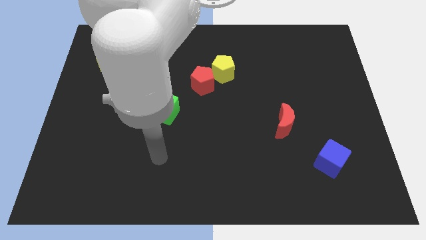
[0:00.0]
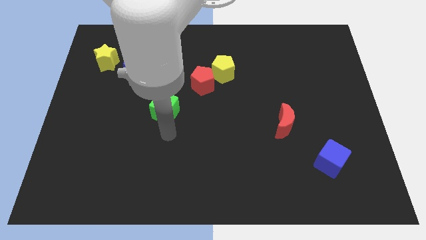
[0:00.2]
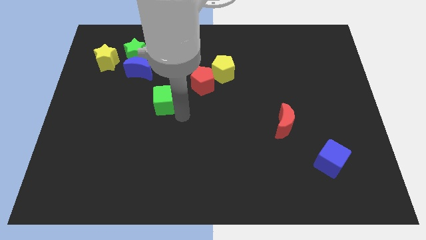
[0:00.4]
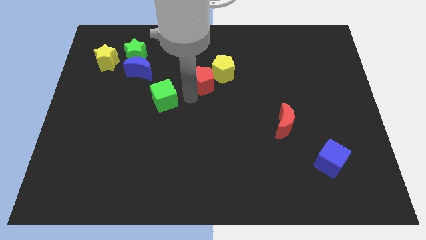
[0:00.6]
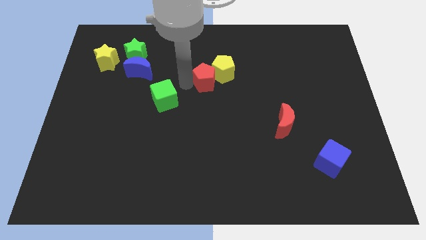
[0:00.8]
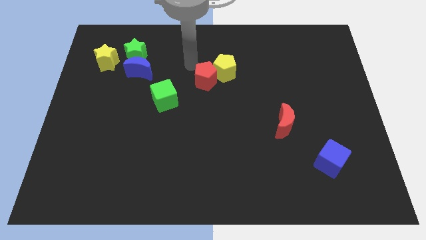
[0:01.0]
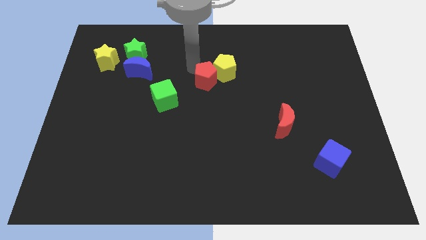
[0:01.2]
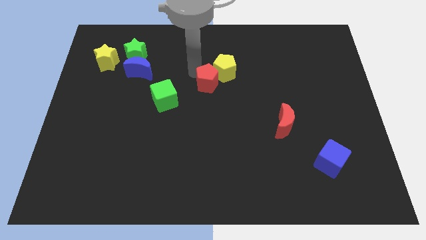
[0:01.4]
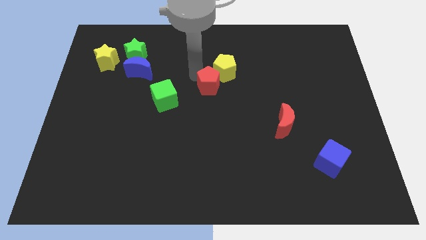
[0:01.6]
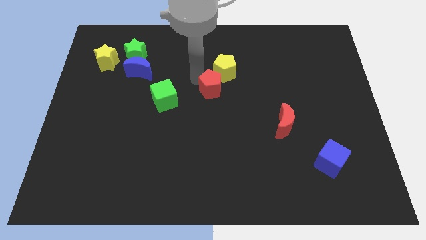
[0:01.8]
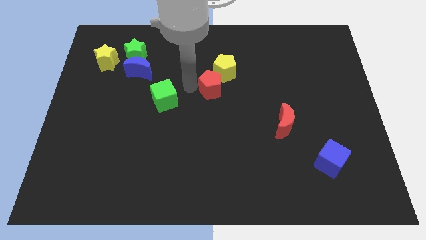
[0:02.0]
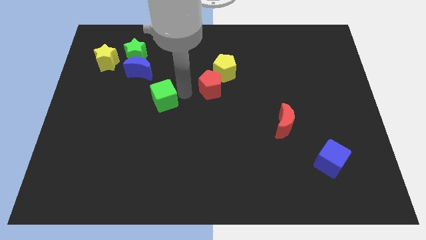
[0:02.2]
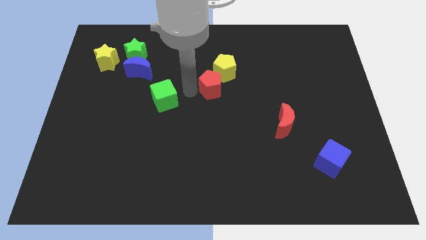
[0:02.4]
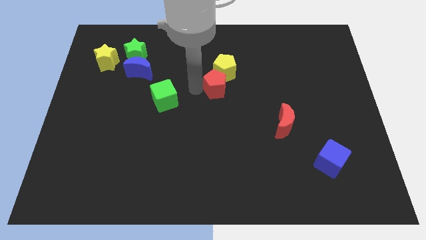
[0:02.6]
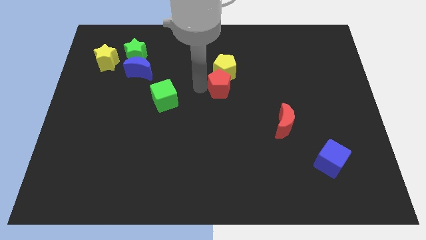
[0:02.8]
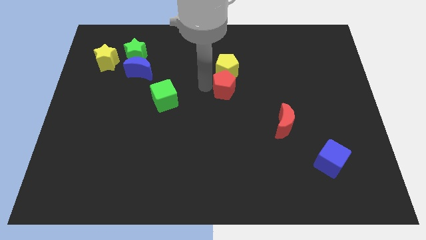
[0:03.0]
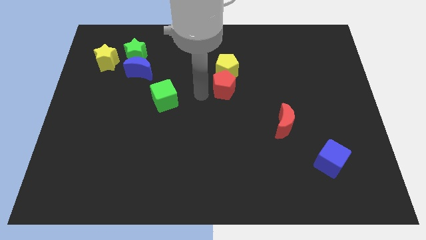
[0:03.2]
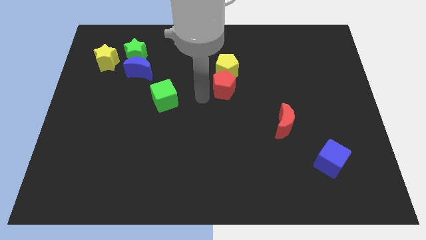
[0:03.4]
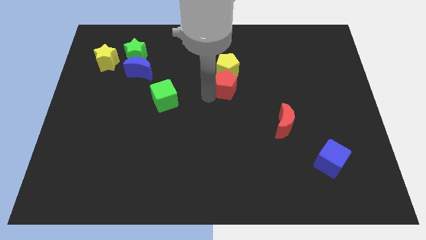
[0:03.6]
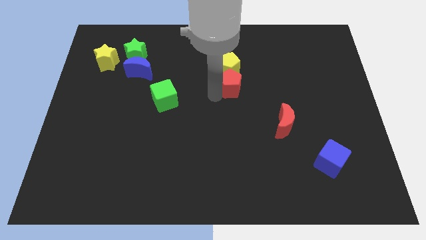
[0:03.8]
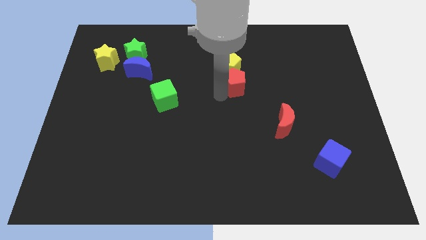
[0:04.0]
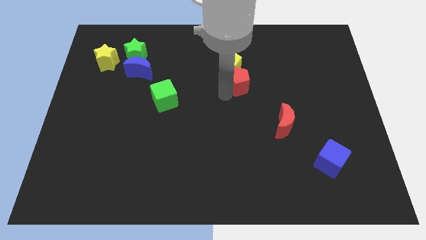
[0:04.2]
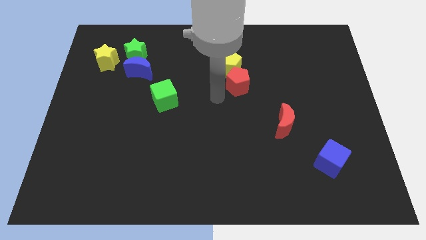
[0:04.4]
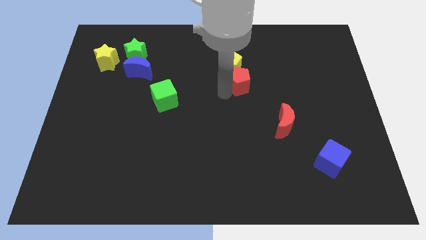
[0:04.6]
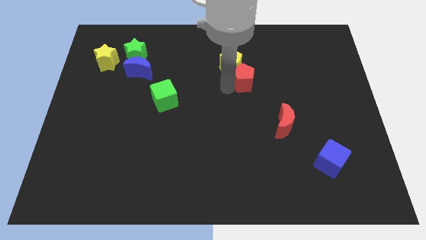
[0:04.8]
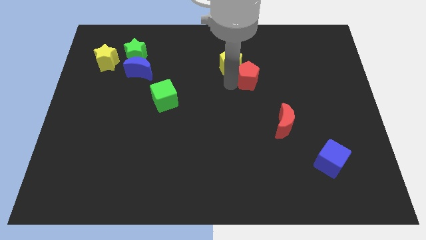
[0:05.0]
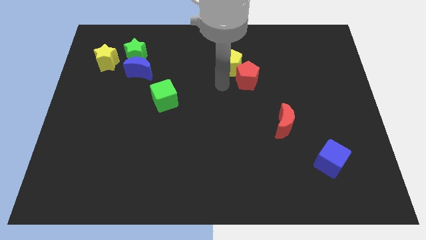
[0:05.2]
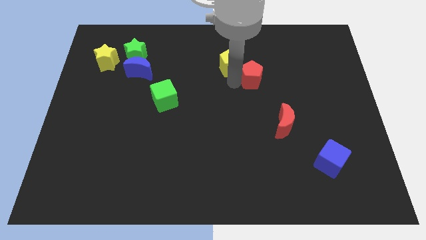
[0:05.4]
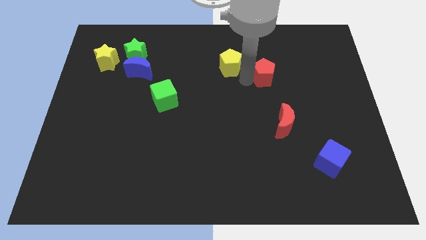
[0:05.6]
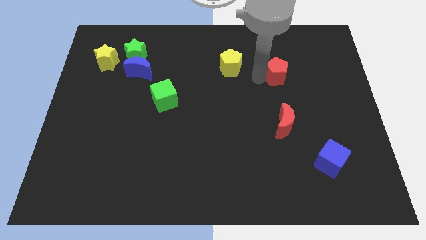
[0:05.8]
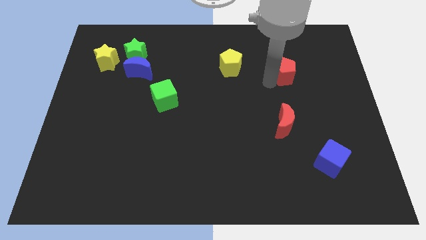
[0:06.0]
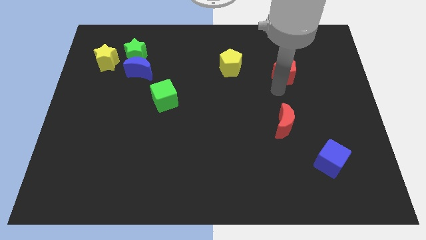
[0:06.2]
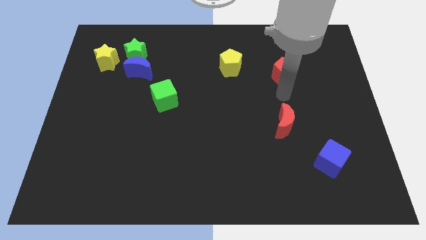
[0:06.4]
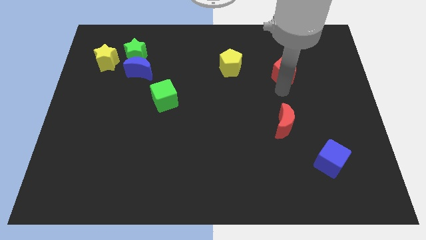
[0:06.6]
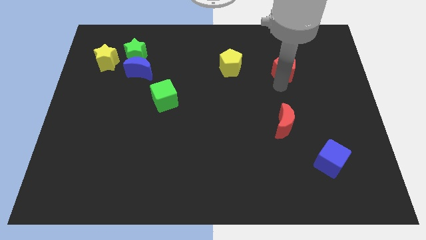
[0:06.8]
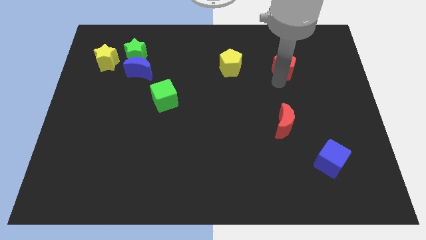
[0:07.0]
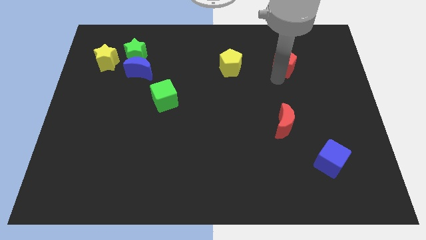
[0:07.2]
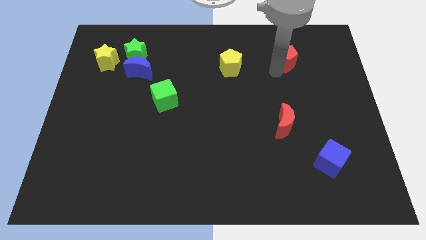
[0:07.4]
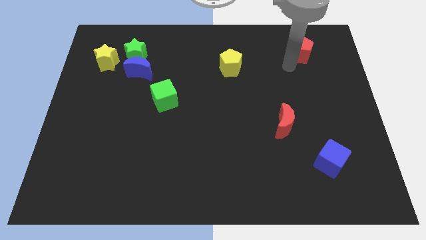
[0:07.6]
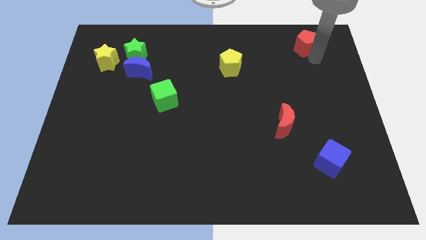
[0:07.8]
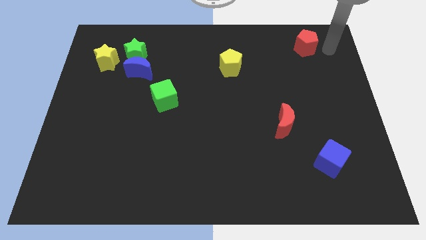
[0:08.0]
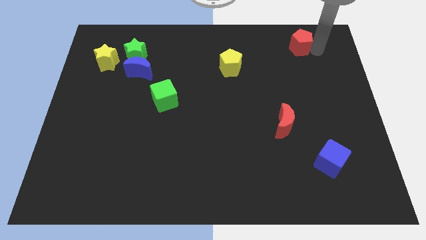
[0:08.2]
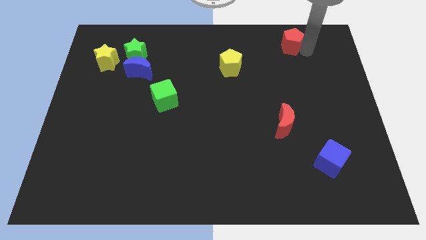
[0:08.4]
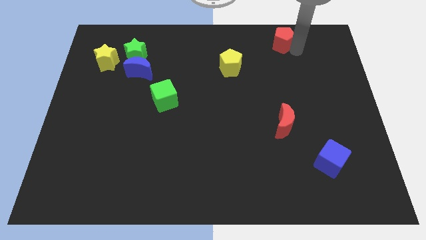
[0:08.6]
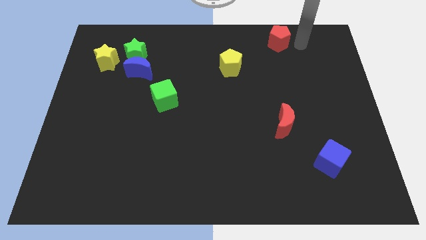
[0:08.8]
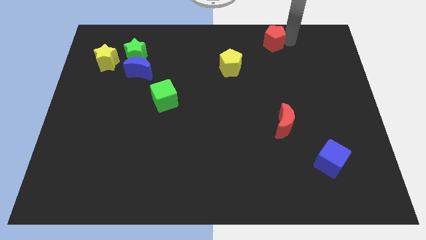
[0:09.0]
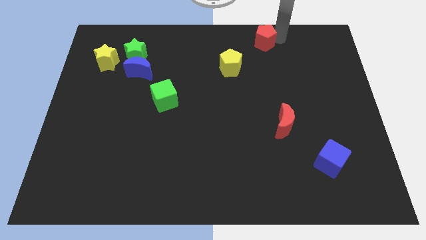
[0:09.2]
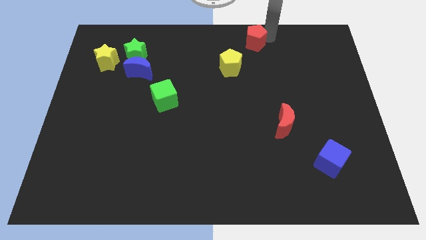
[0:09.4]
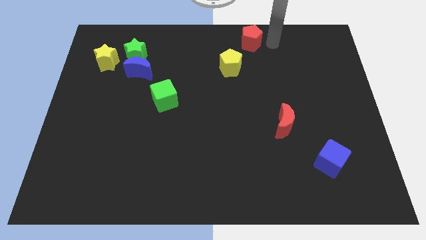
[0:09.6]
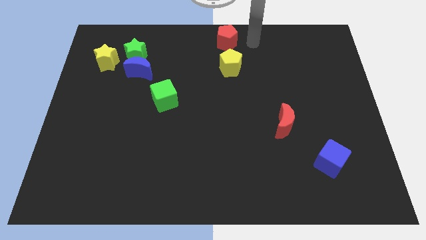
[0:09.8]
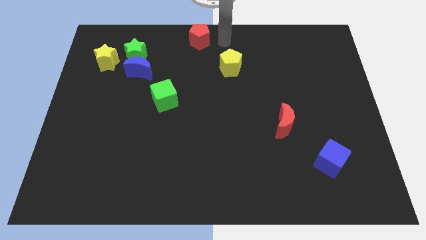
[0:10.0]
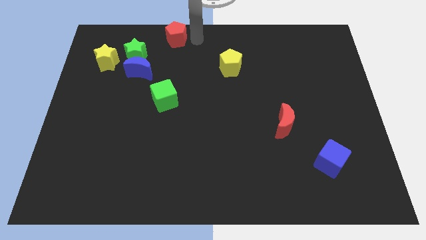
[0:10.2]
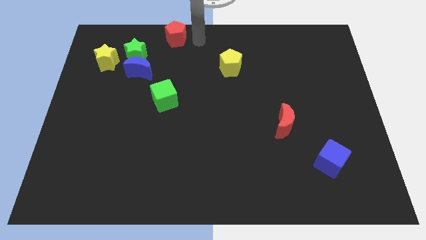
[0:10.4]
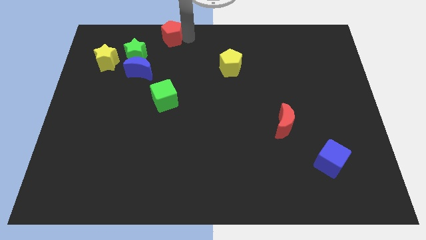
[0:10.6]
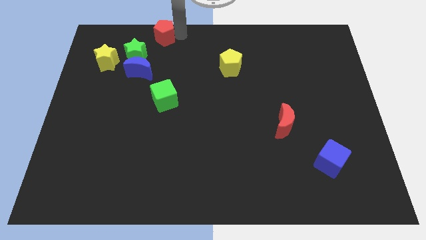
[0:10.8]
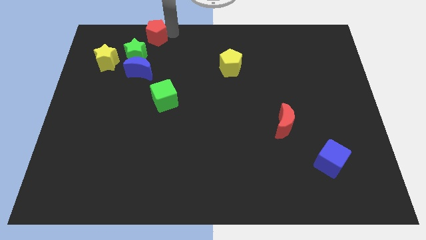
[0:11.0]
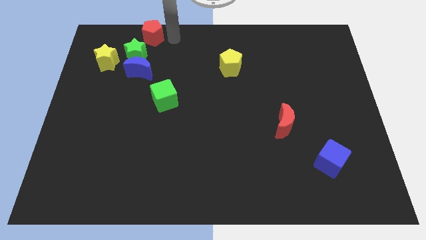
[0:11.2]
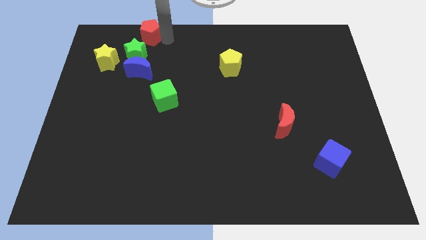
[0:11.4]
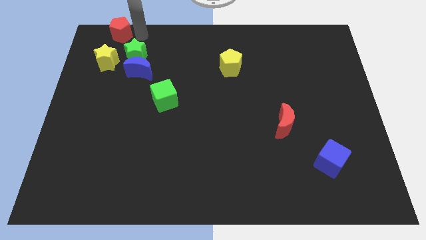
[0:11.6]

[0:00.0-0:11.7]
move the red pentagon to the upper left corner
